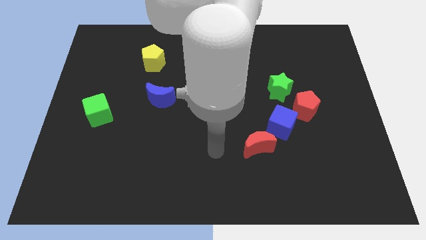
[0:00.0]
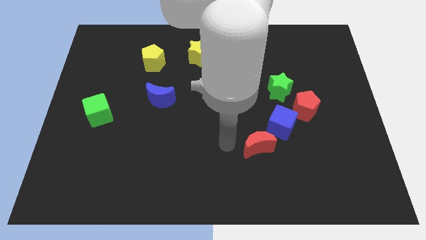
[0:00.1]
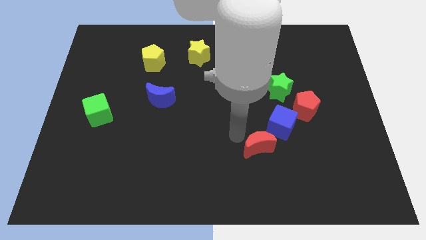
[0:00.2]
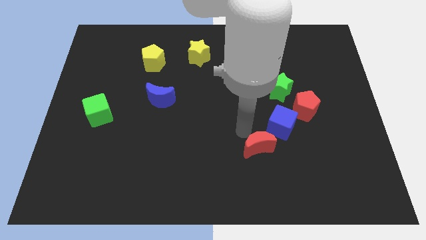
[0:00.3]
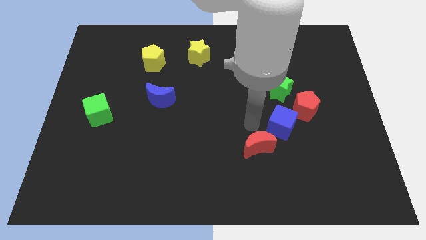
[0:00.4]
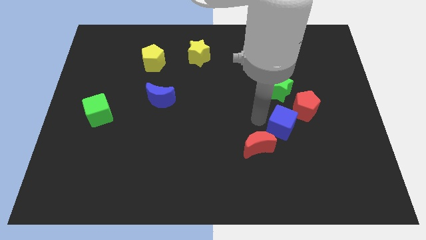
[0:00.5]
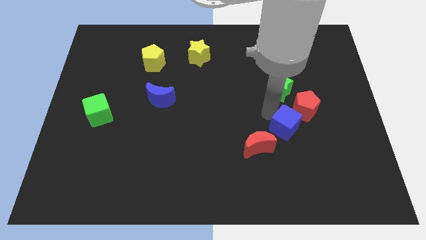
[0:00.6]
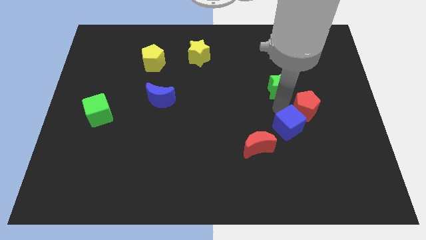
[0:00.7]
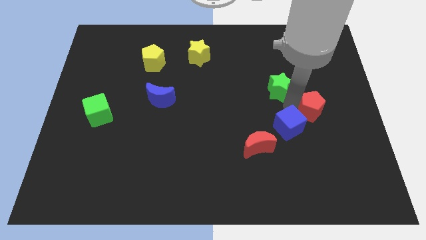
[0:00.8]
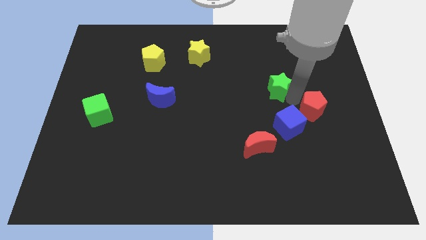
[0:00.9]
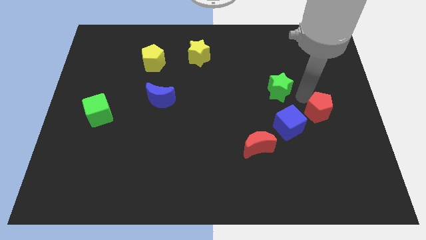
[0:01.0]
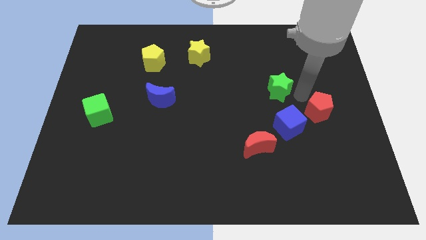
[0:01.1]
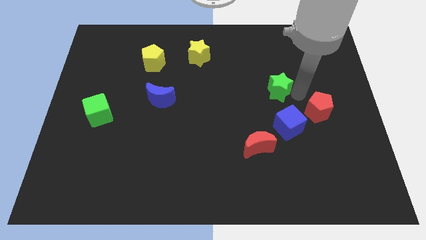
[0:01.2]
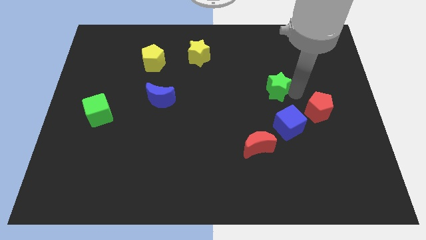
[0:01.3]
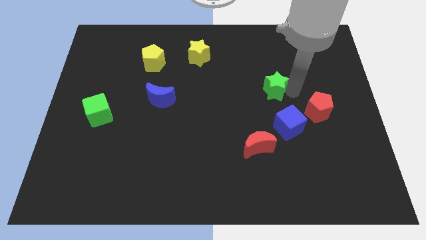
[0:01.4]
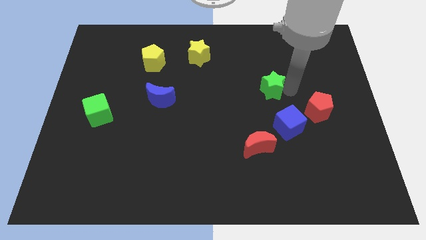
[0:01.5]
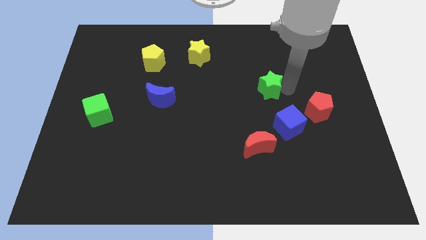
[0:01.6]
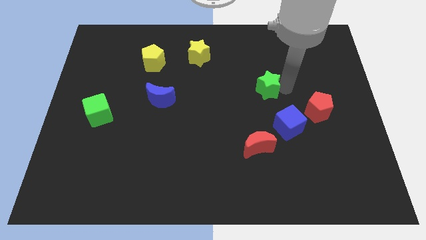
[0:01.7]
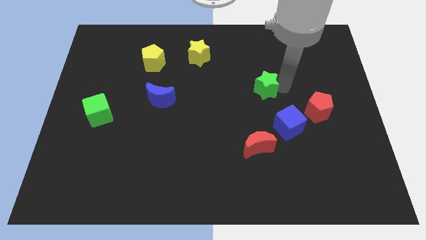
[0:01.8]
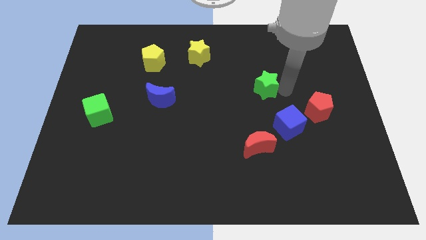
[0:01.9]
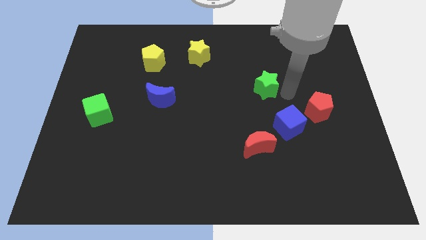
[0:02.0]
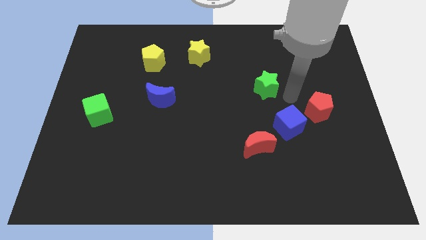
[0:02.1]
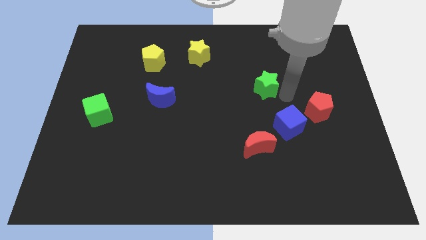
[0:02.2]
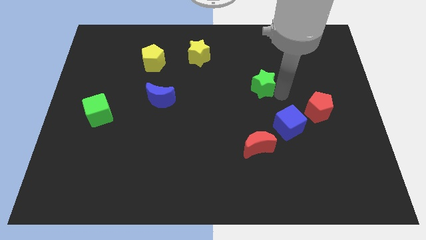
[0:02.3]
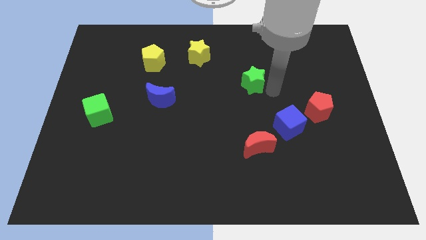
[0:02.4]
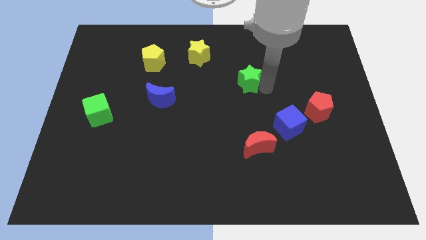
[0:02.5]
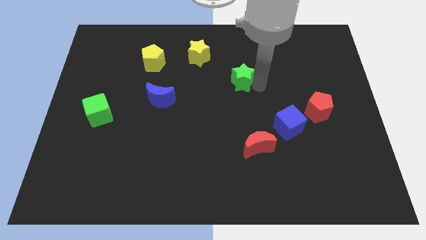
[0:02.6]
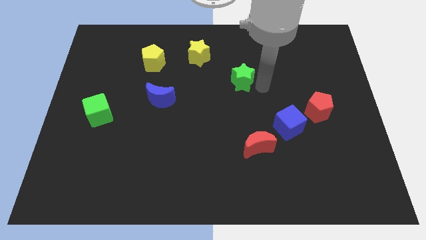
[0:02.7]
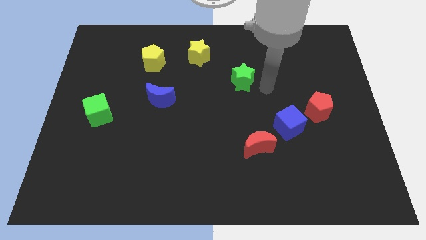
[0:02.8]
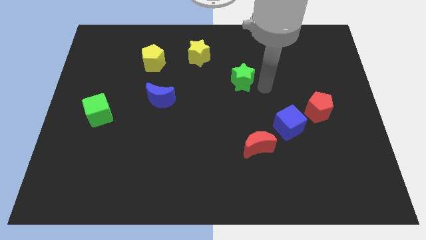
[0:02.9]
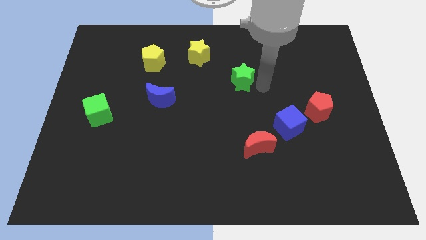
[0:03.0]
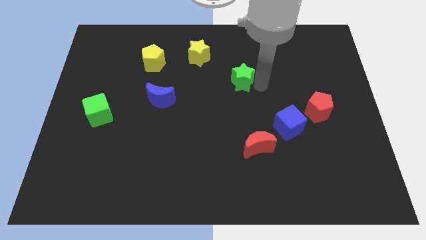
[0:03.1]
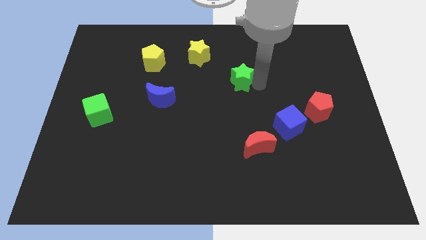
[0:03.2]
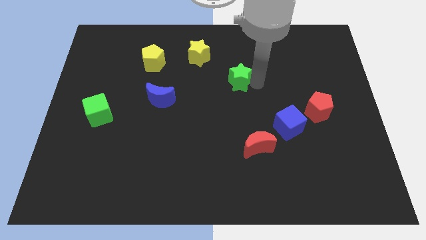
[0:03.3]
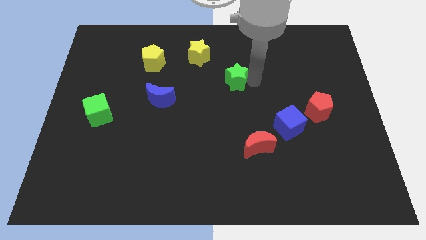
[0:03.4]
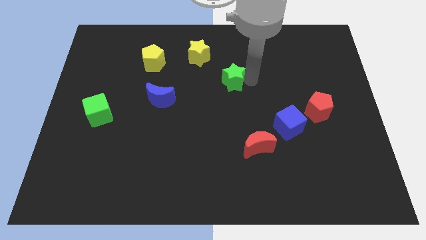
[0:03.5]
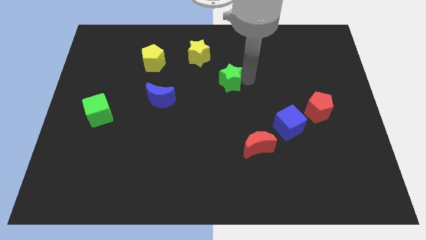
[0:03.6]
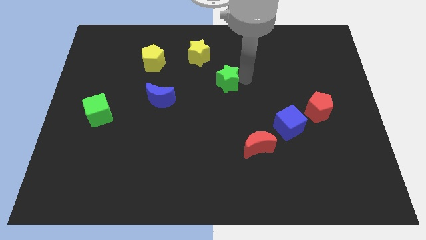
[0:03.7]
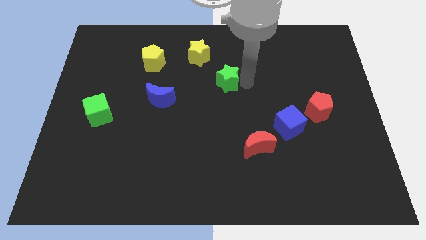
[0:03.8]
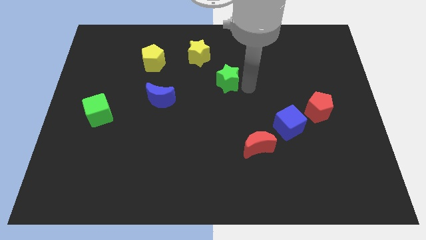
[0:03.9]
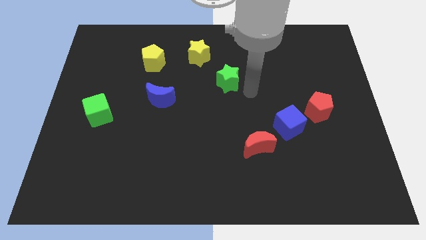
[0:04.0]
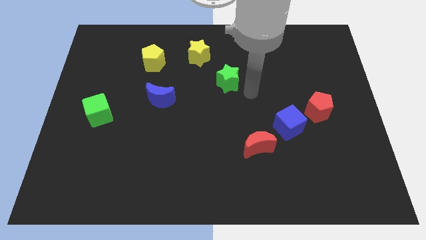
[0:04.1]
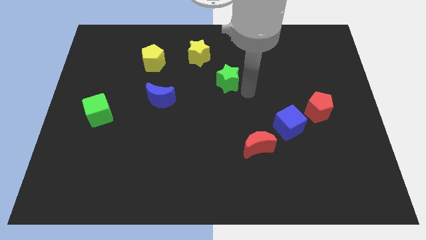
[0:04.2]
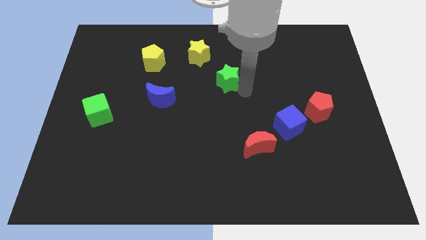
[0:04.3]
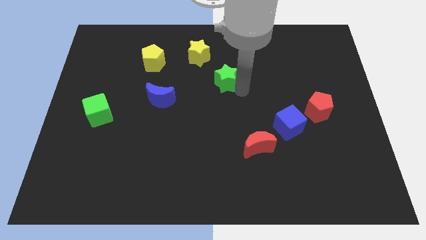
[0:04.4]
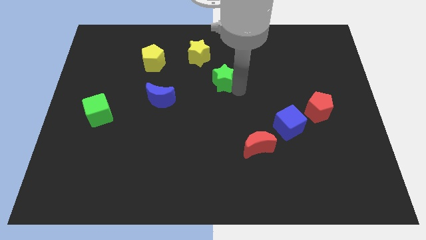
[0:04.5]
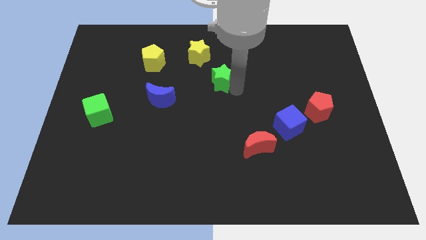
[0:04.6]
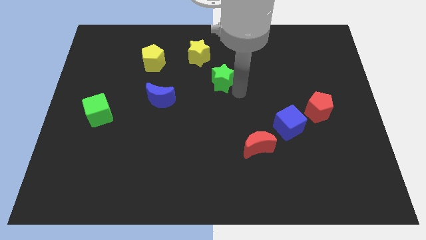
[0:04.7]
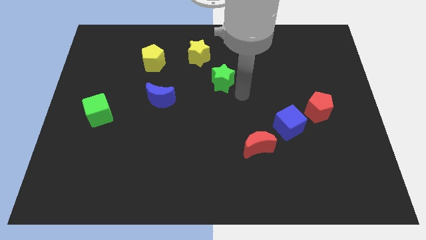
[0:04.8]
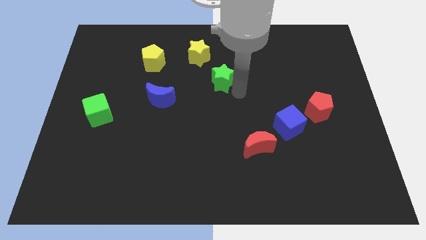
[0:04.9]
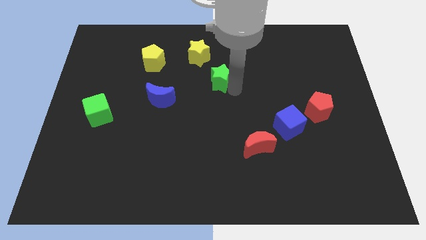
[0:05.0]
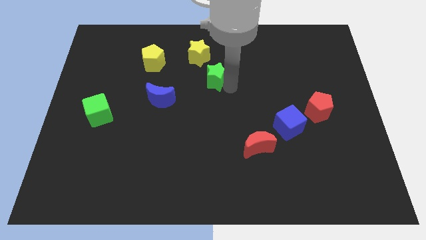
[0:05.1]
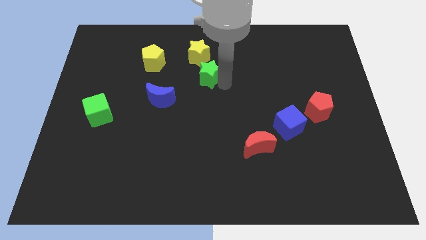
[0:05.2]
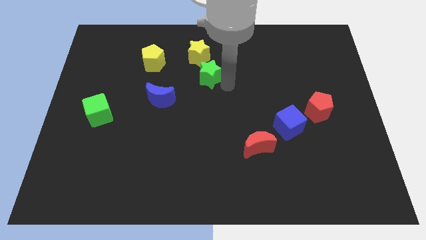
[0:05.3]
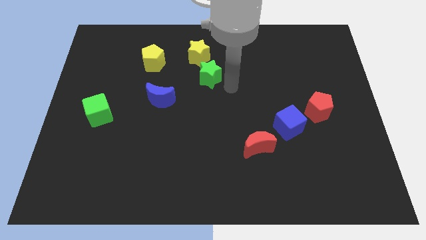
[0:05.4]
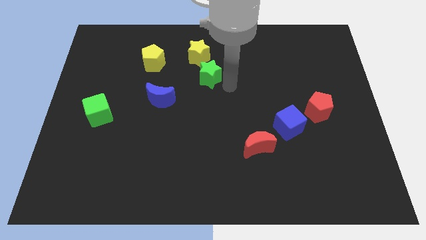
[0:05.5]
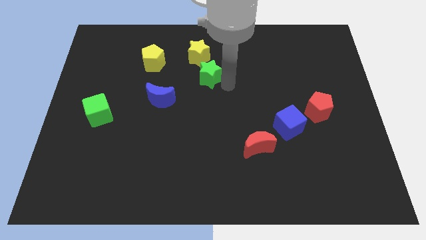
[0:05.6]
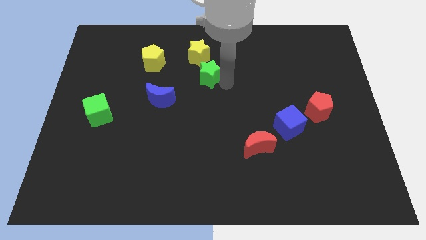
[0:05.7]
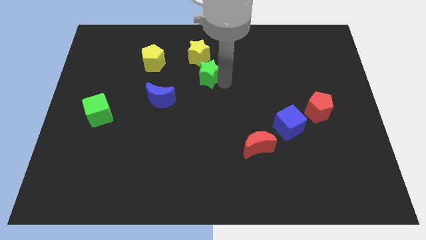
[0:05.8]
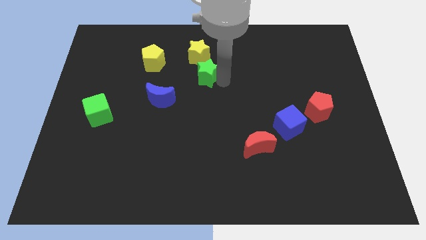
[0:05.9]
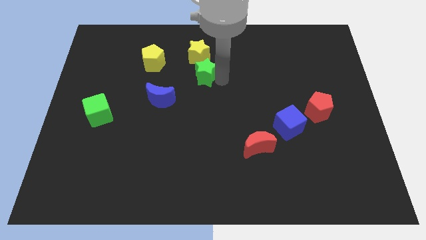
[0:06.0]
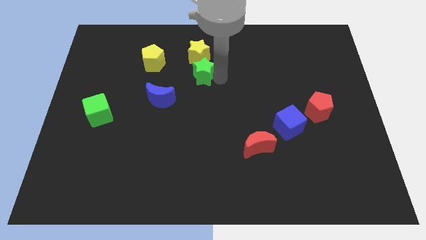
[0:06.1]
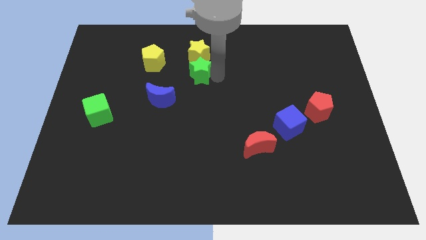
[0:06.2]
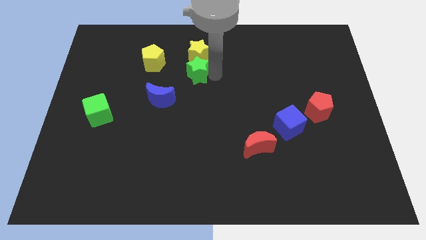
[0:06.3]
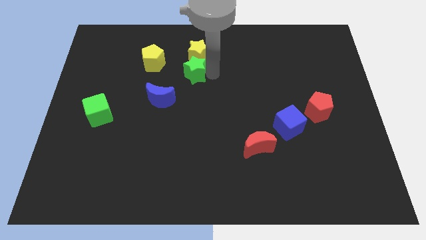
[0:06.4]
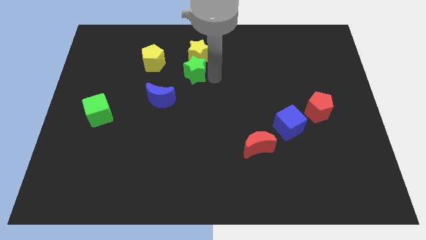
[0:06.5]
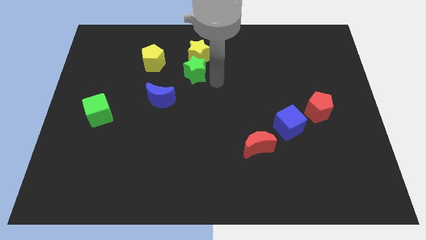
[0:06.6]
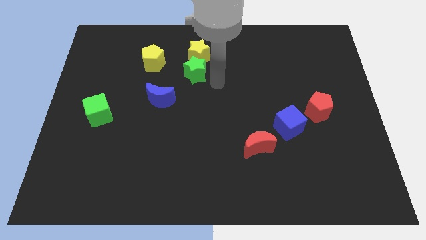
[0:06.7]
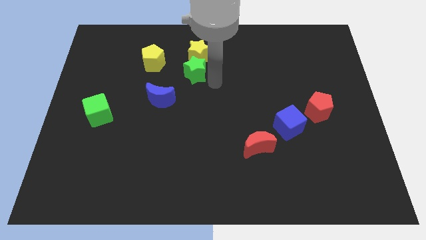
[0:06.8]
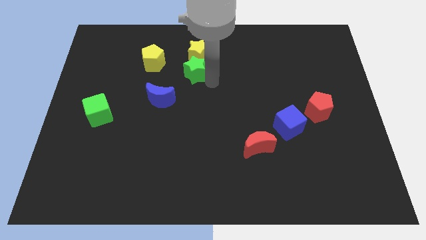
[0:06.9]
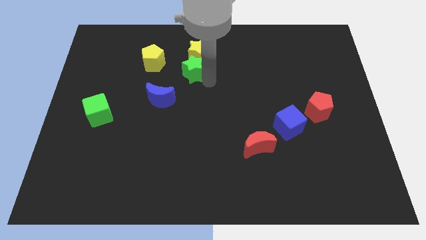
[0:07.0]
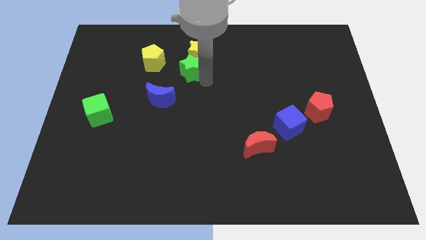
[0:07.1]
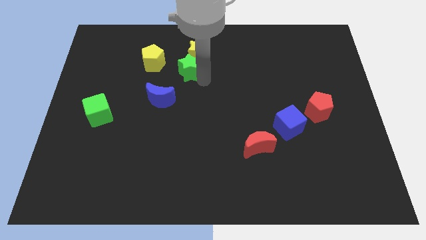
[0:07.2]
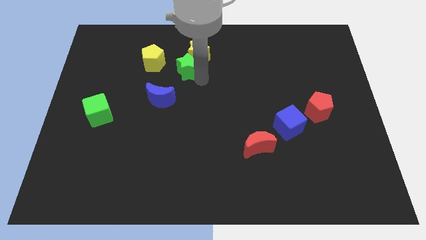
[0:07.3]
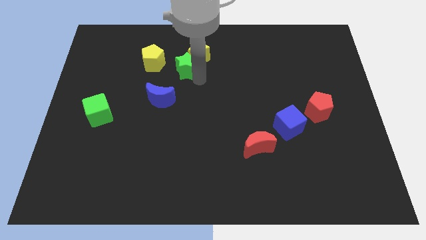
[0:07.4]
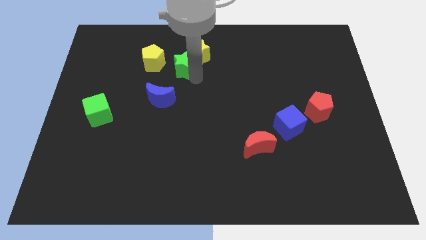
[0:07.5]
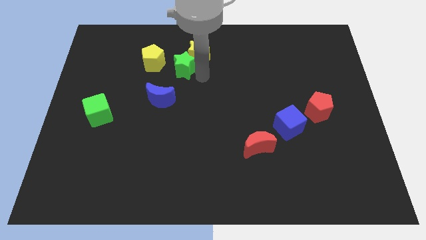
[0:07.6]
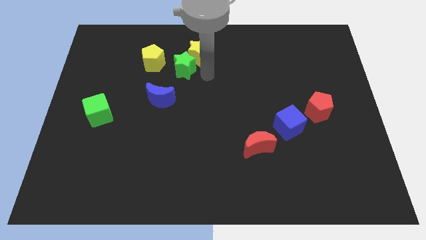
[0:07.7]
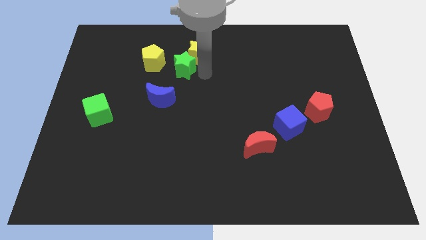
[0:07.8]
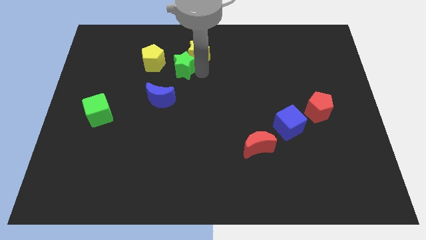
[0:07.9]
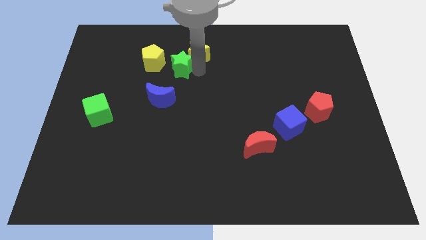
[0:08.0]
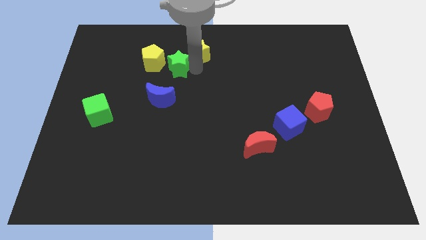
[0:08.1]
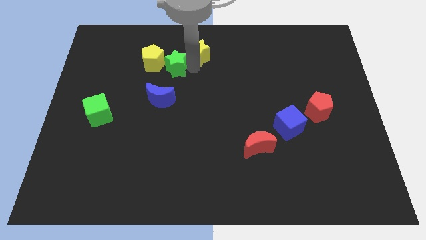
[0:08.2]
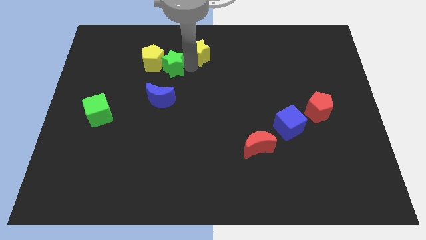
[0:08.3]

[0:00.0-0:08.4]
slide the green star close to the yellow pentagon
